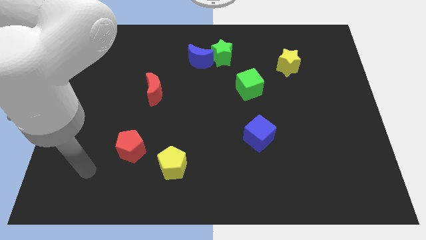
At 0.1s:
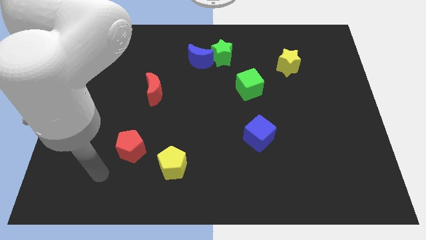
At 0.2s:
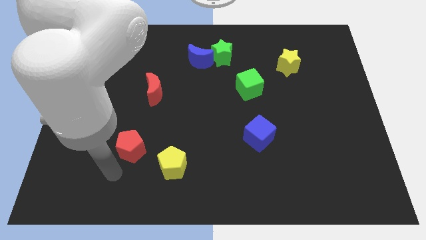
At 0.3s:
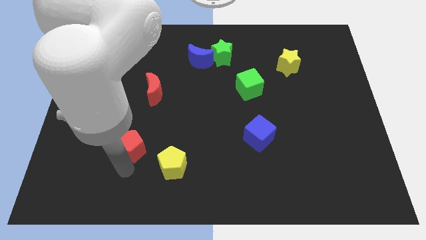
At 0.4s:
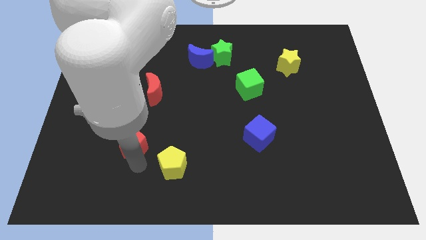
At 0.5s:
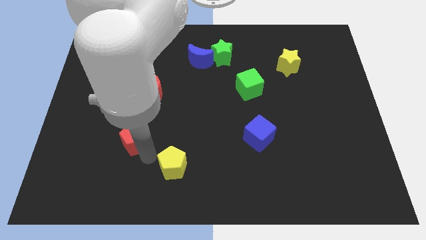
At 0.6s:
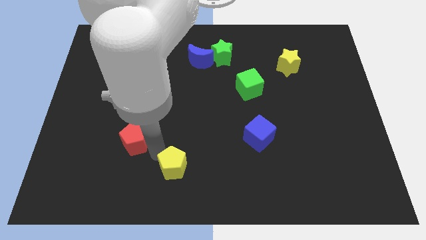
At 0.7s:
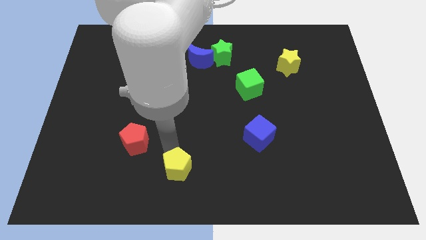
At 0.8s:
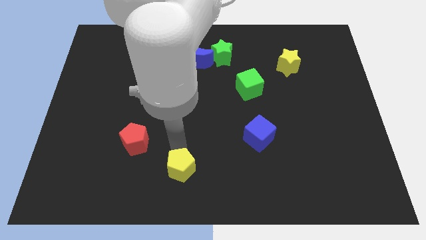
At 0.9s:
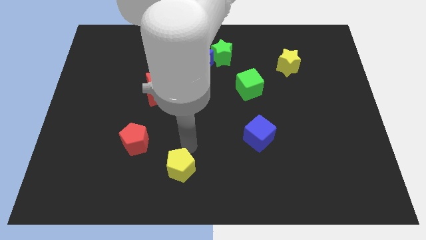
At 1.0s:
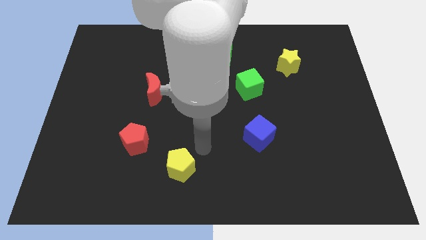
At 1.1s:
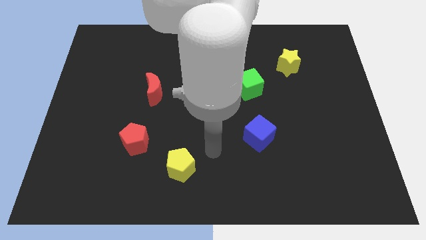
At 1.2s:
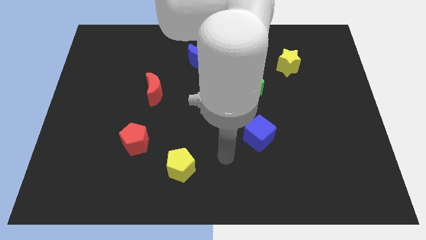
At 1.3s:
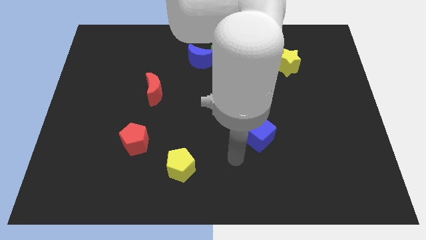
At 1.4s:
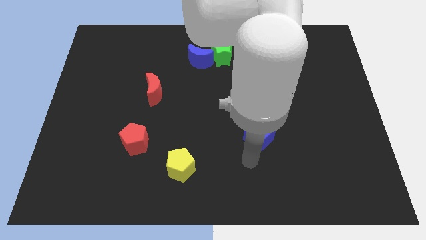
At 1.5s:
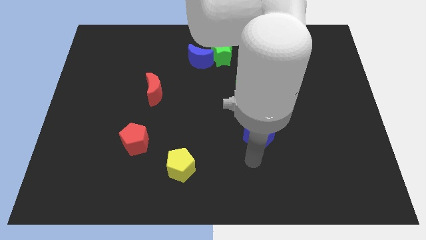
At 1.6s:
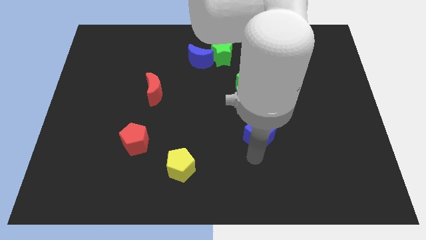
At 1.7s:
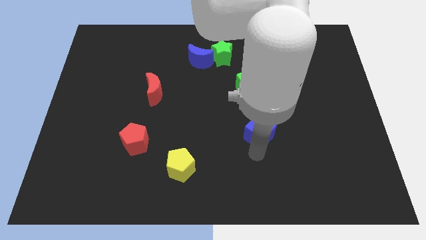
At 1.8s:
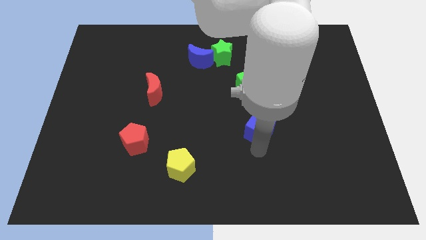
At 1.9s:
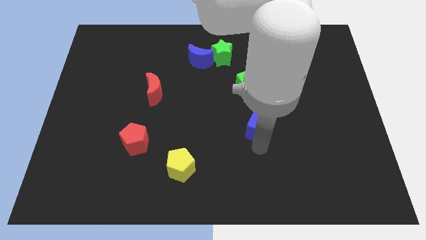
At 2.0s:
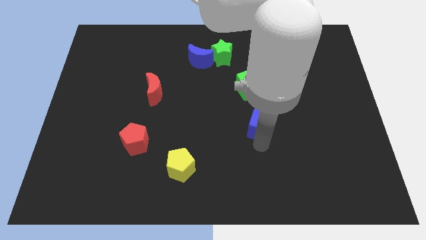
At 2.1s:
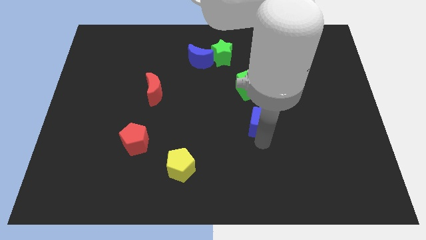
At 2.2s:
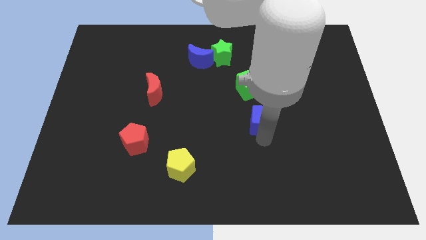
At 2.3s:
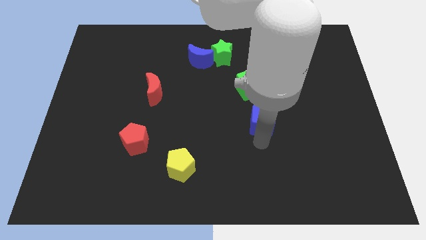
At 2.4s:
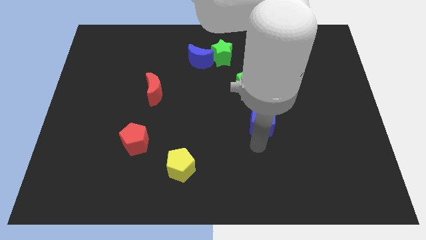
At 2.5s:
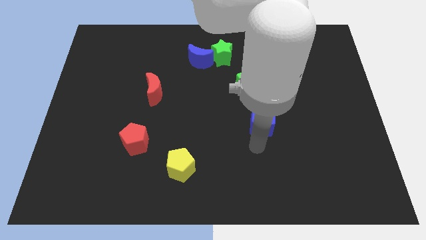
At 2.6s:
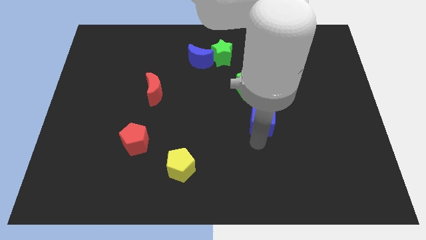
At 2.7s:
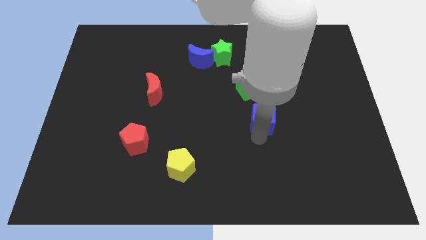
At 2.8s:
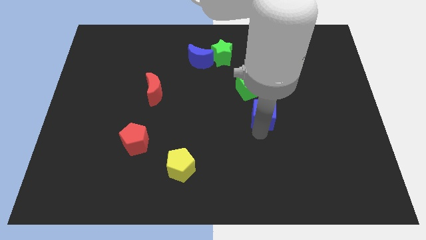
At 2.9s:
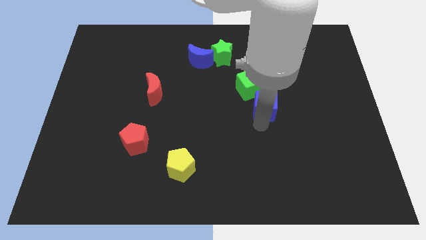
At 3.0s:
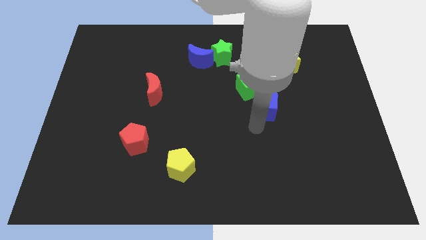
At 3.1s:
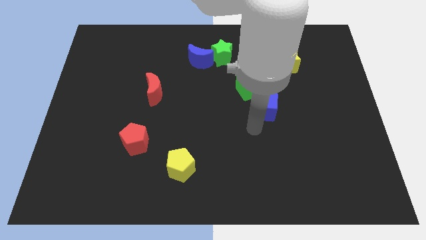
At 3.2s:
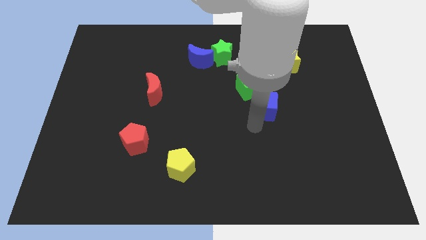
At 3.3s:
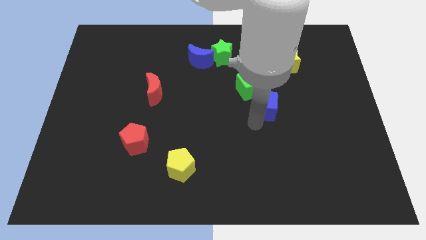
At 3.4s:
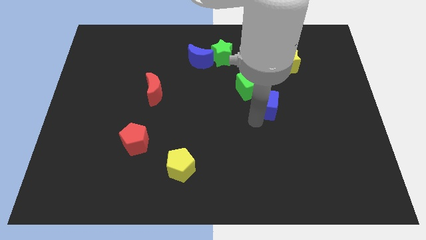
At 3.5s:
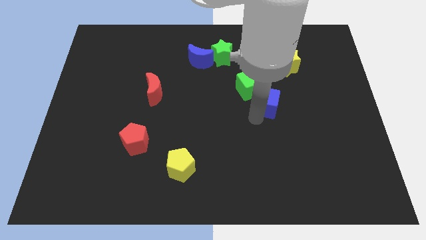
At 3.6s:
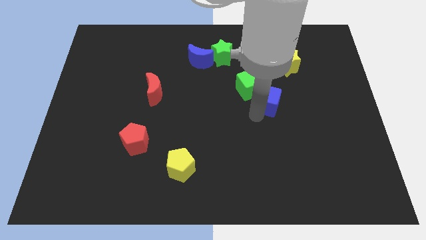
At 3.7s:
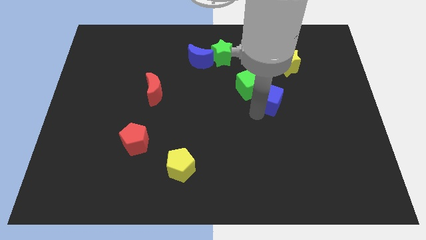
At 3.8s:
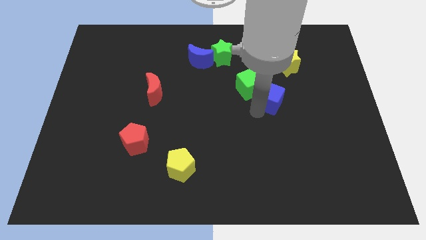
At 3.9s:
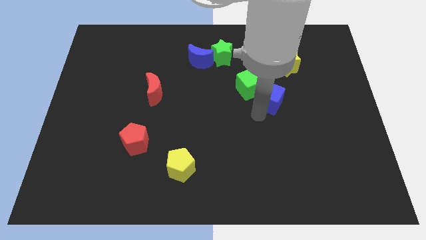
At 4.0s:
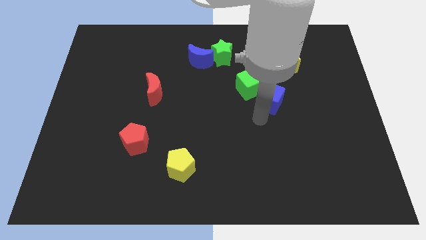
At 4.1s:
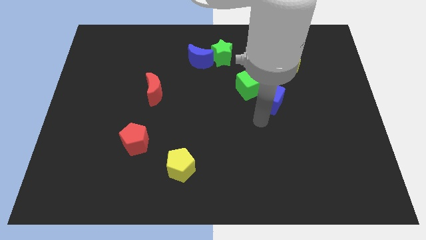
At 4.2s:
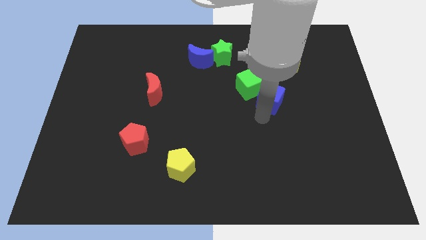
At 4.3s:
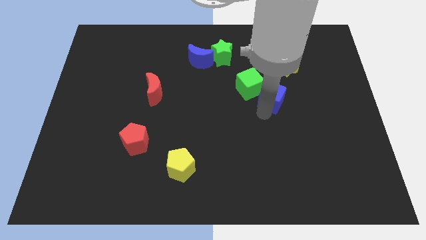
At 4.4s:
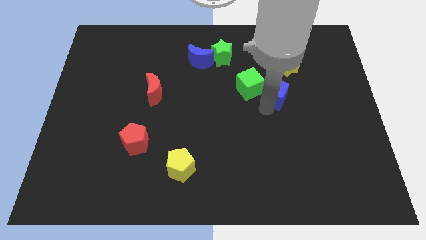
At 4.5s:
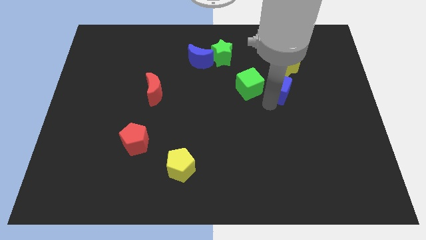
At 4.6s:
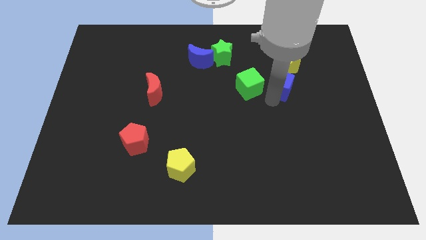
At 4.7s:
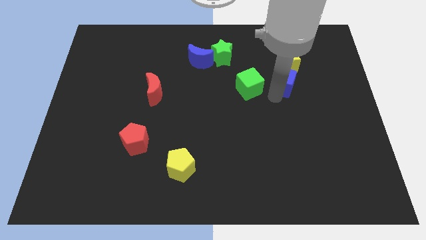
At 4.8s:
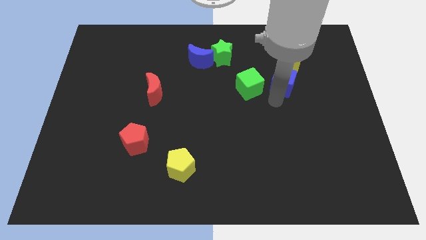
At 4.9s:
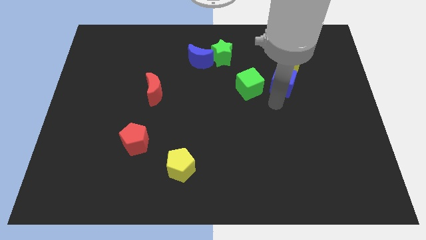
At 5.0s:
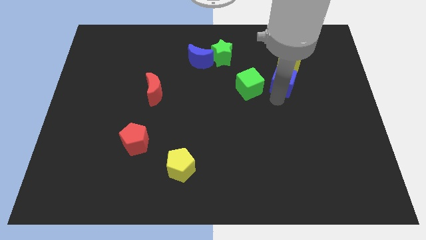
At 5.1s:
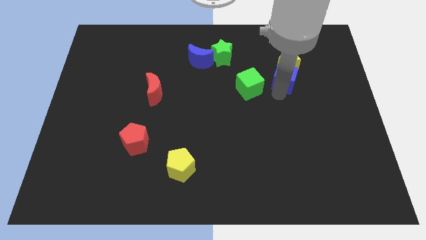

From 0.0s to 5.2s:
slide the blue cube towards the yellow star

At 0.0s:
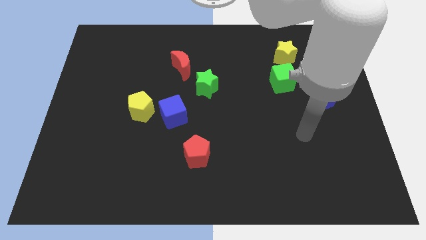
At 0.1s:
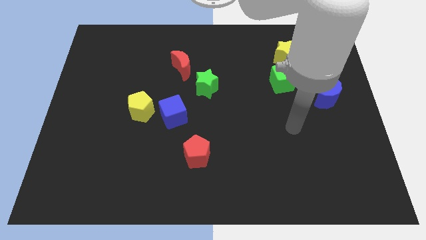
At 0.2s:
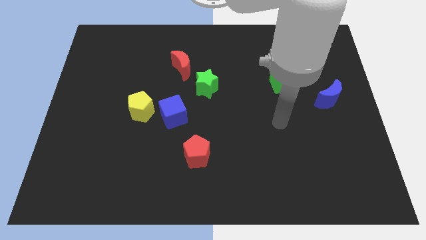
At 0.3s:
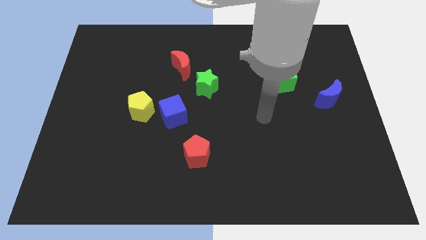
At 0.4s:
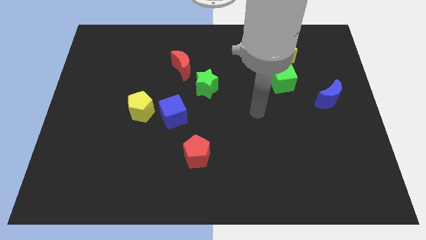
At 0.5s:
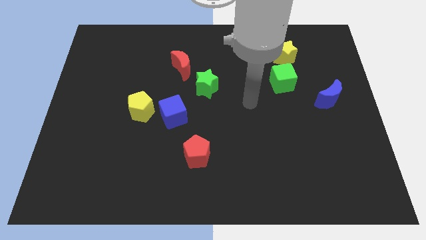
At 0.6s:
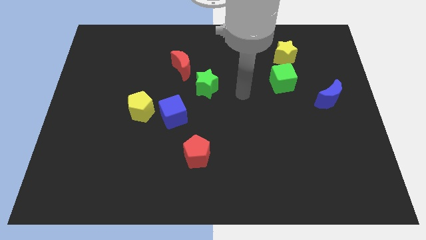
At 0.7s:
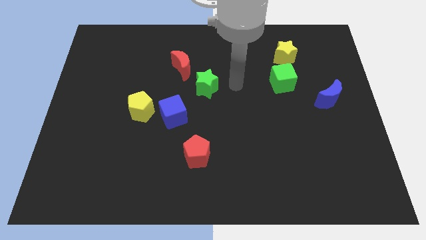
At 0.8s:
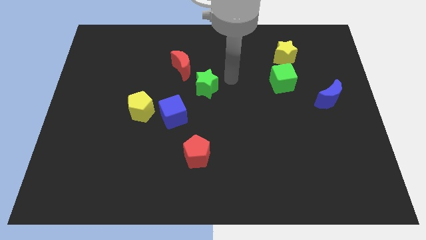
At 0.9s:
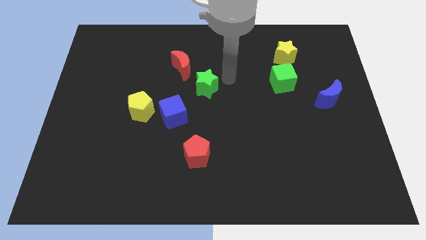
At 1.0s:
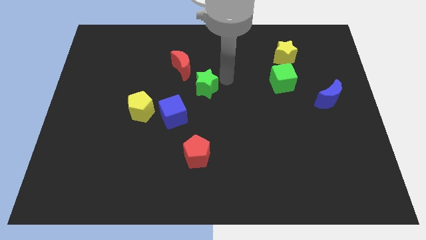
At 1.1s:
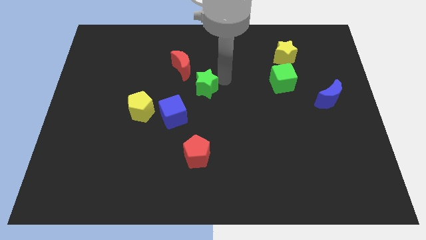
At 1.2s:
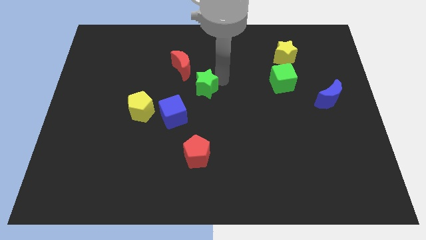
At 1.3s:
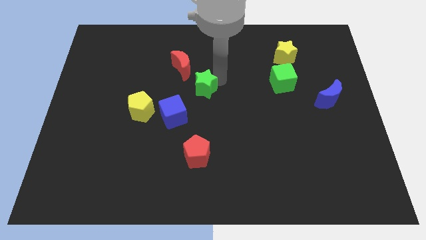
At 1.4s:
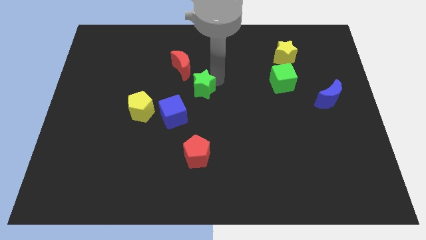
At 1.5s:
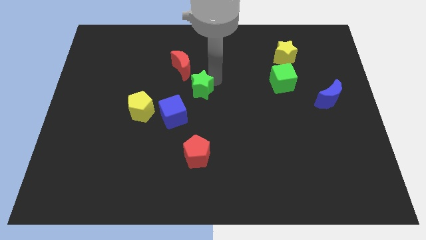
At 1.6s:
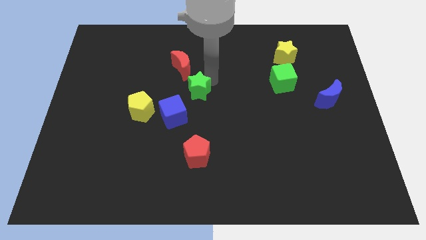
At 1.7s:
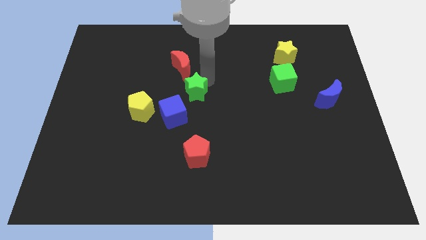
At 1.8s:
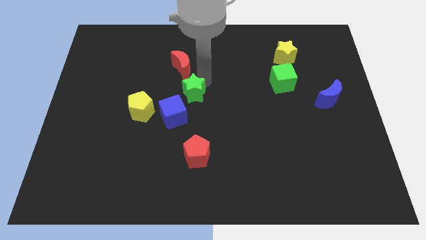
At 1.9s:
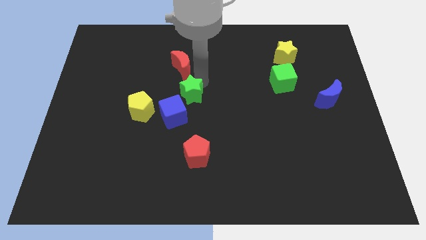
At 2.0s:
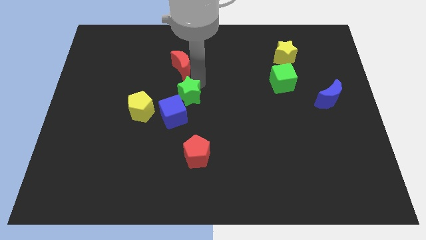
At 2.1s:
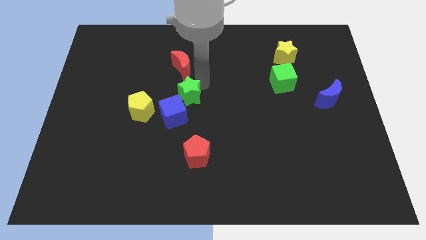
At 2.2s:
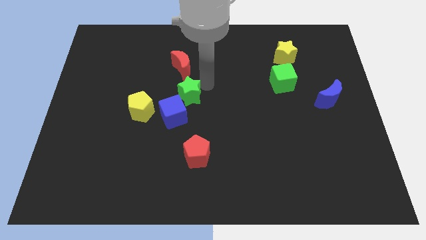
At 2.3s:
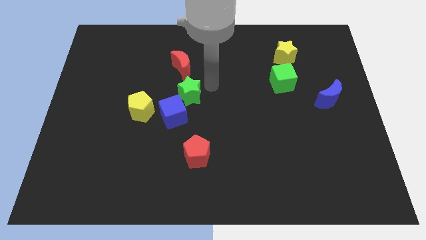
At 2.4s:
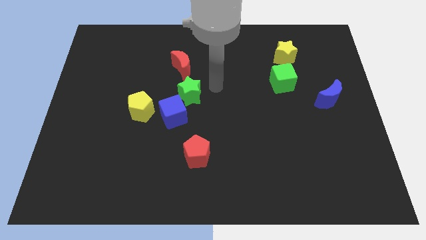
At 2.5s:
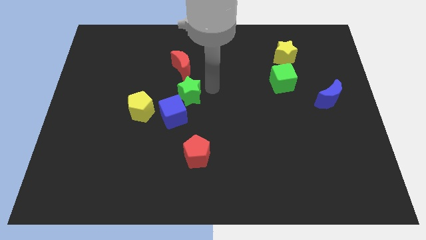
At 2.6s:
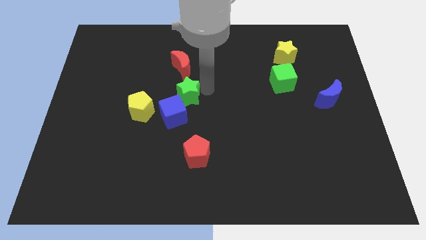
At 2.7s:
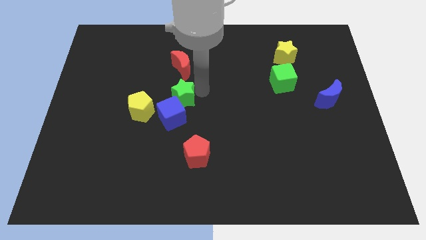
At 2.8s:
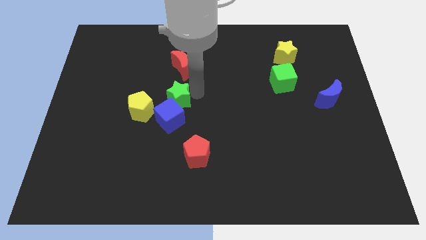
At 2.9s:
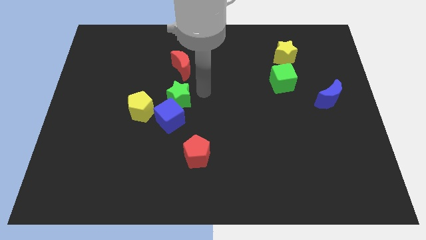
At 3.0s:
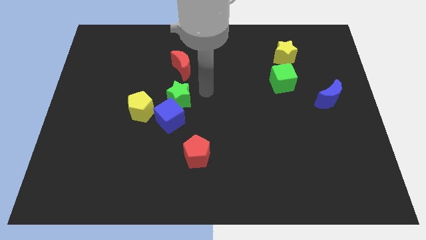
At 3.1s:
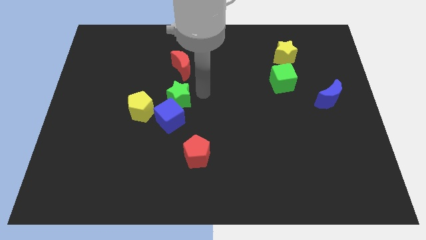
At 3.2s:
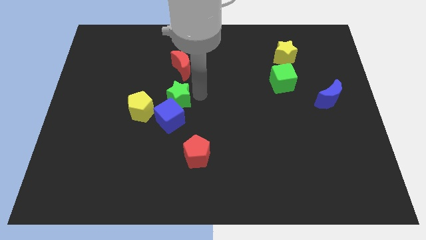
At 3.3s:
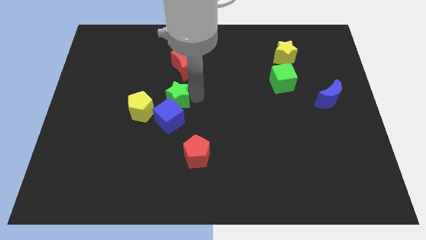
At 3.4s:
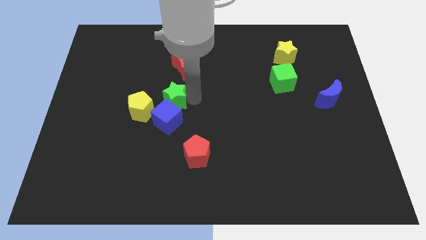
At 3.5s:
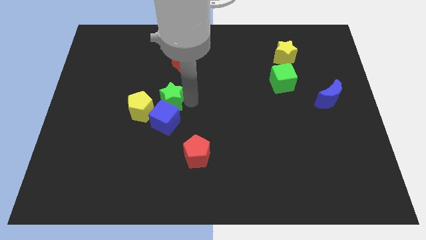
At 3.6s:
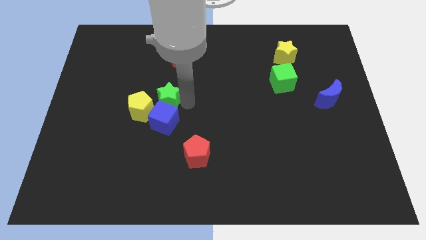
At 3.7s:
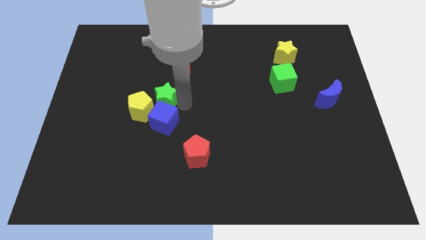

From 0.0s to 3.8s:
push the green star close to the yellow pentagon
